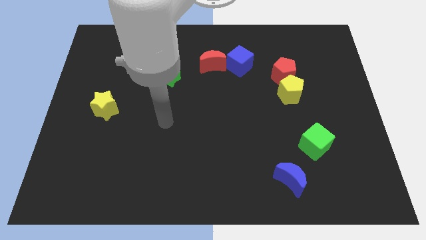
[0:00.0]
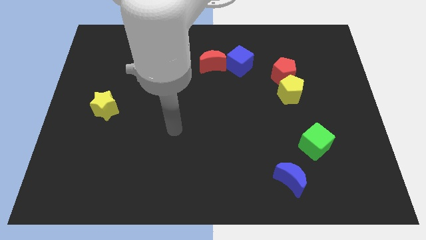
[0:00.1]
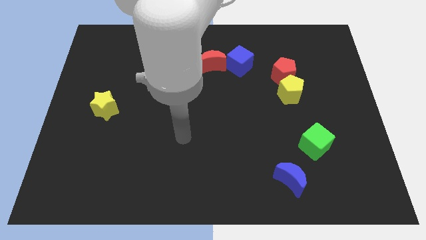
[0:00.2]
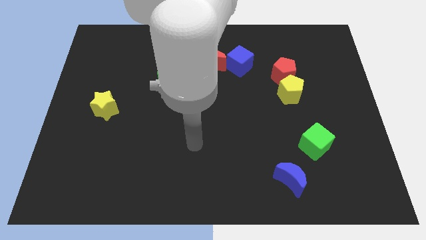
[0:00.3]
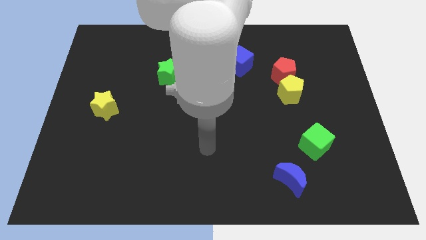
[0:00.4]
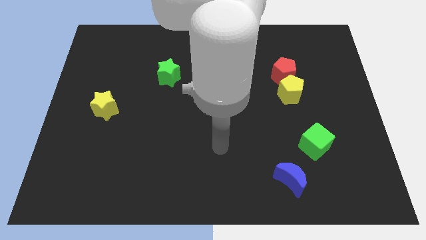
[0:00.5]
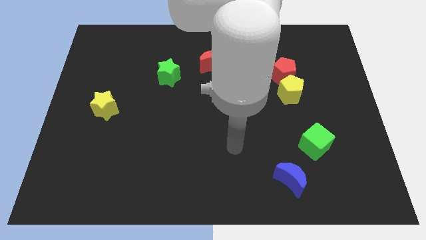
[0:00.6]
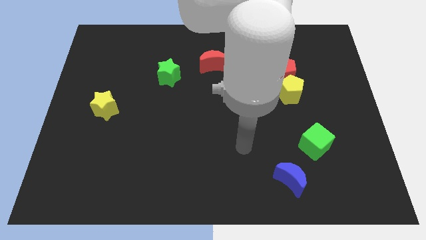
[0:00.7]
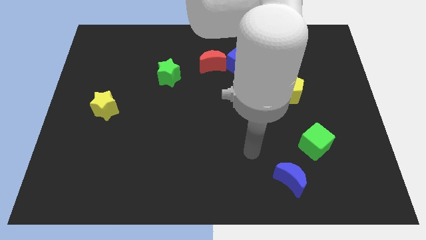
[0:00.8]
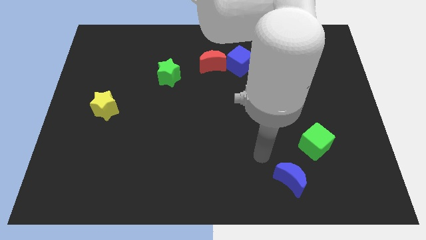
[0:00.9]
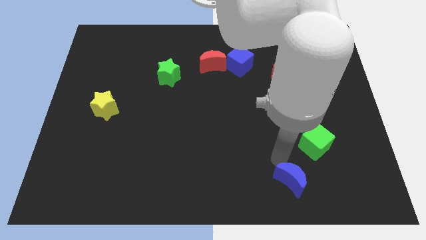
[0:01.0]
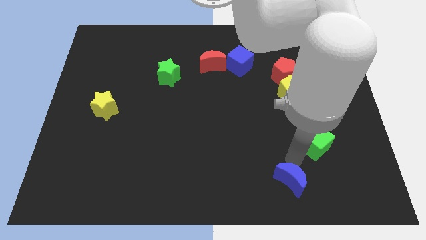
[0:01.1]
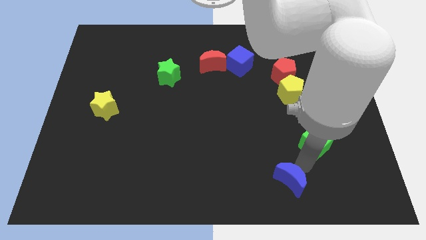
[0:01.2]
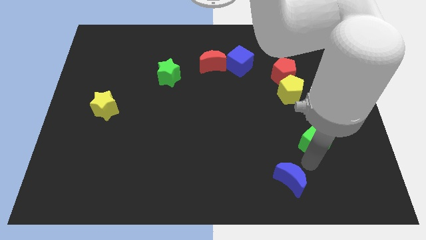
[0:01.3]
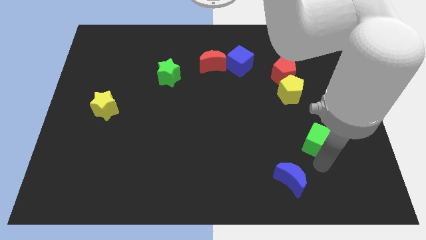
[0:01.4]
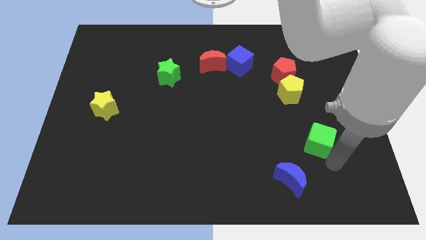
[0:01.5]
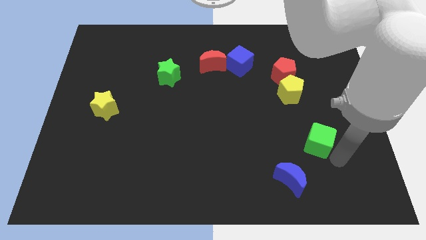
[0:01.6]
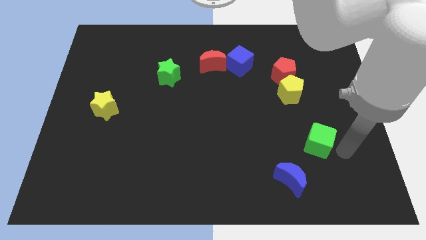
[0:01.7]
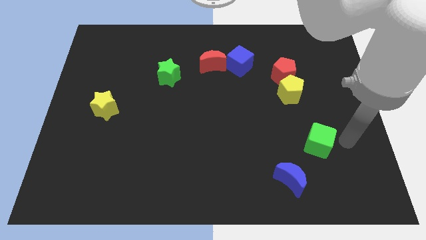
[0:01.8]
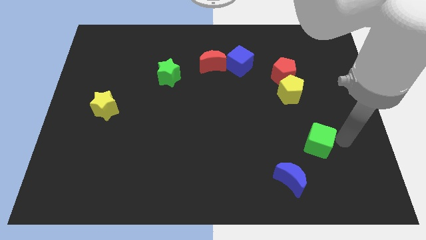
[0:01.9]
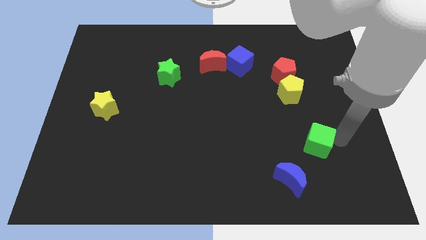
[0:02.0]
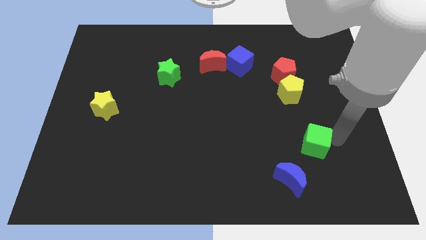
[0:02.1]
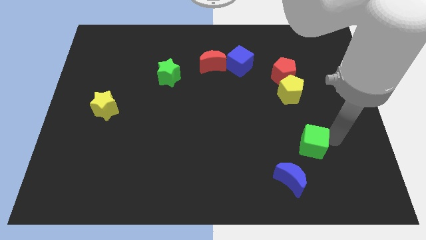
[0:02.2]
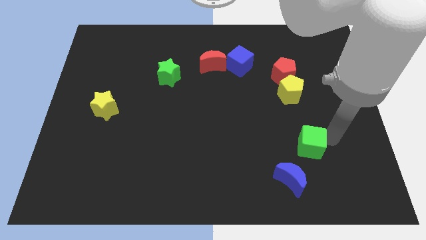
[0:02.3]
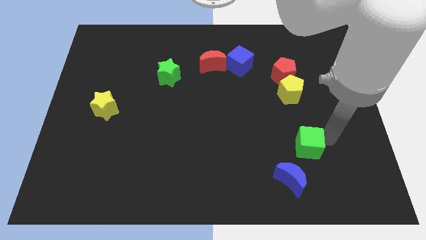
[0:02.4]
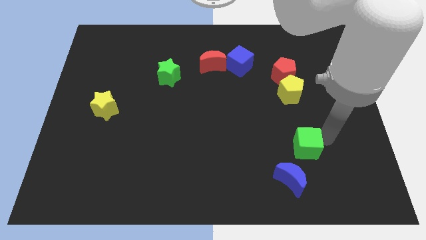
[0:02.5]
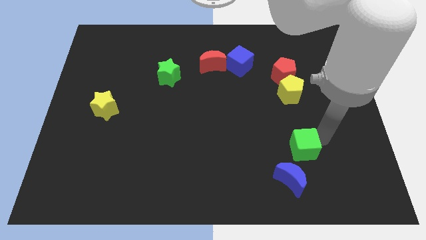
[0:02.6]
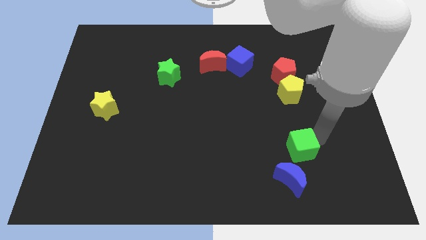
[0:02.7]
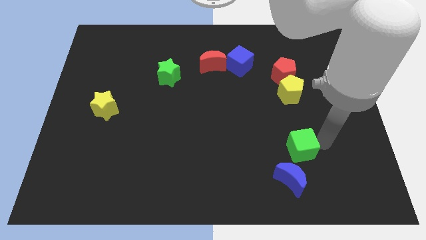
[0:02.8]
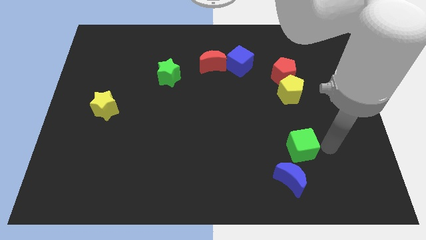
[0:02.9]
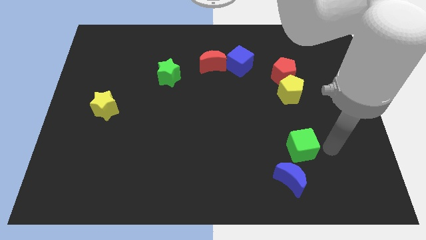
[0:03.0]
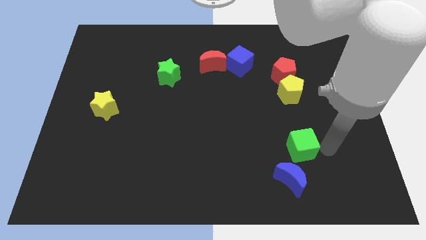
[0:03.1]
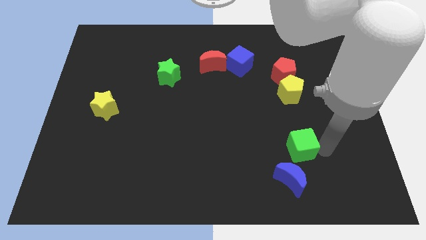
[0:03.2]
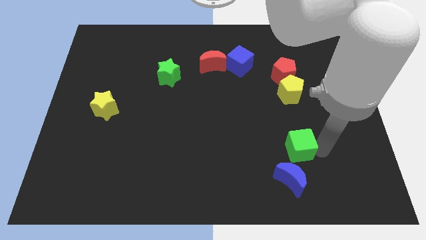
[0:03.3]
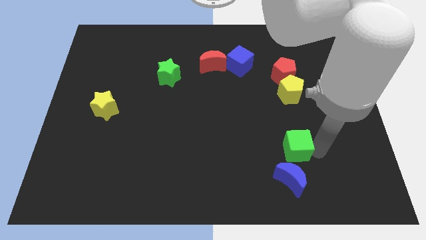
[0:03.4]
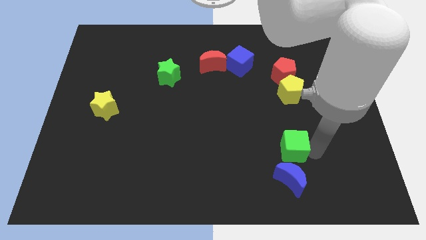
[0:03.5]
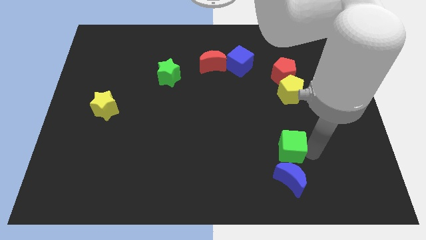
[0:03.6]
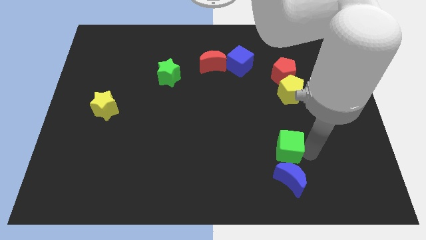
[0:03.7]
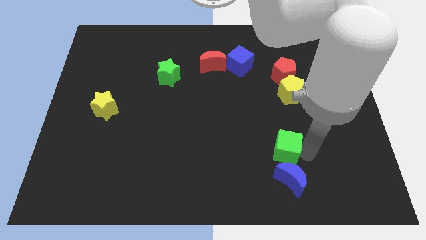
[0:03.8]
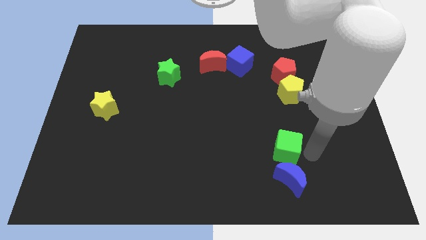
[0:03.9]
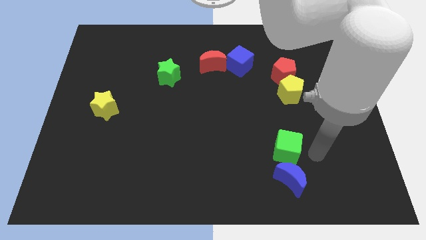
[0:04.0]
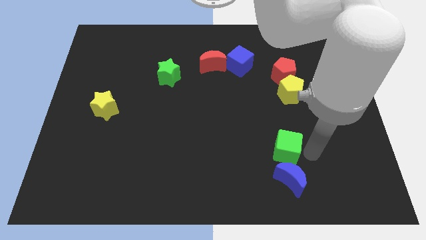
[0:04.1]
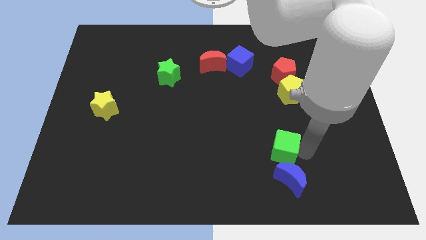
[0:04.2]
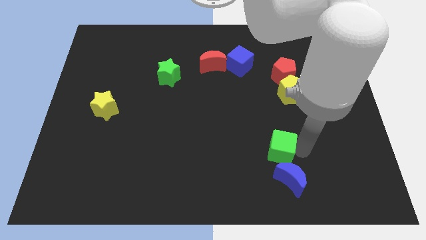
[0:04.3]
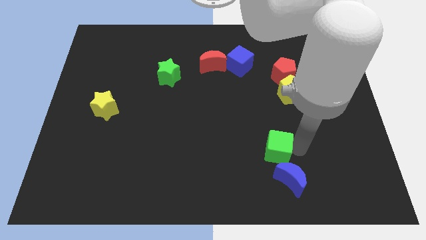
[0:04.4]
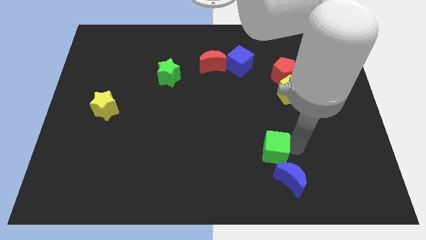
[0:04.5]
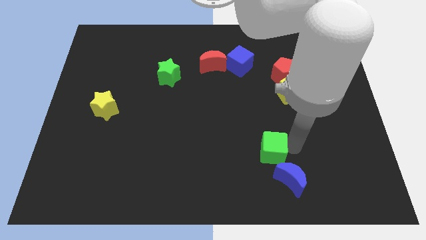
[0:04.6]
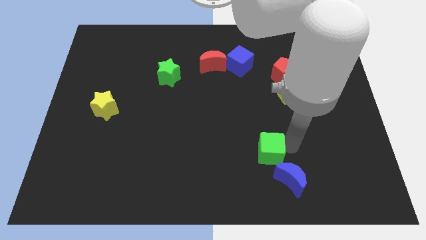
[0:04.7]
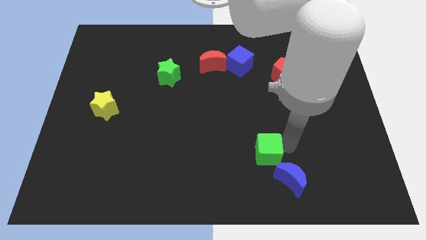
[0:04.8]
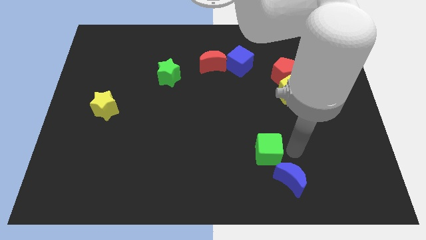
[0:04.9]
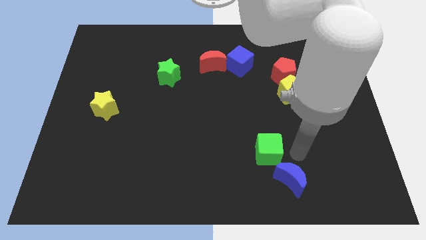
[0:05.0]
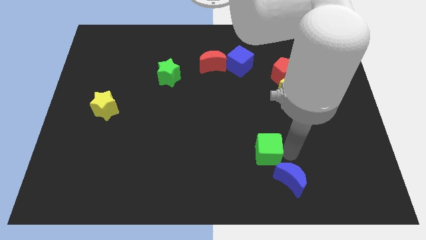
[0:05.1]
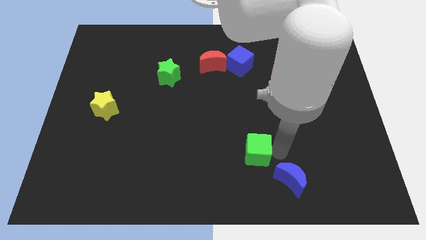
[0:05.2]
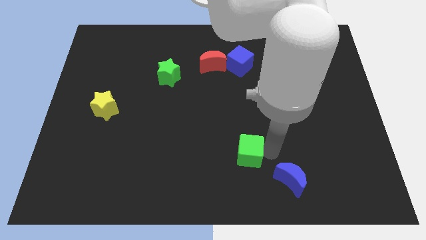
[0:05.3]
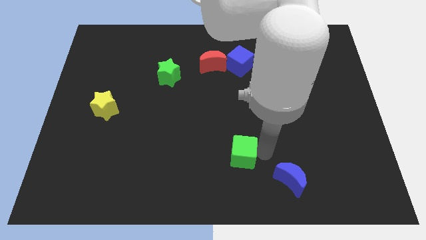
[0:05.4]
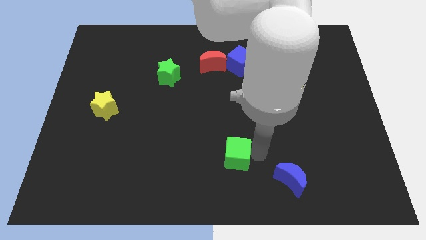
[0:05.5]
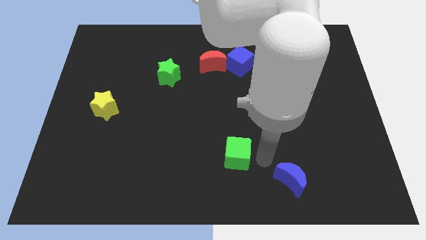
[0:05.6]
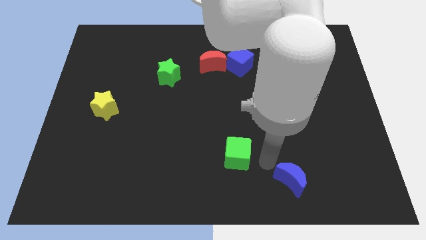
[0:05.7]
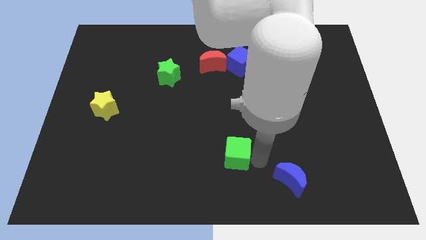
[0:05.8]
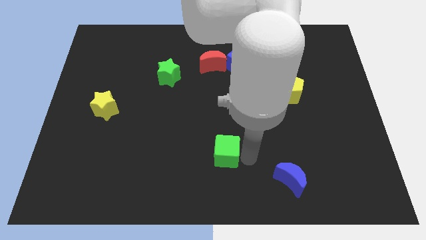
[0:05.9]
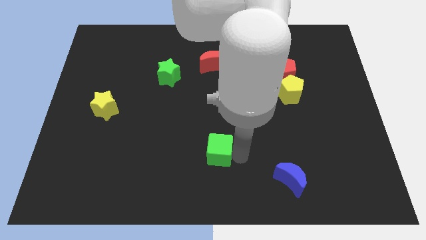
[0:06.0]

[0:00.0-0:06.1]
push the green cube left

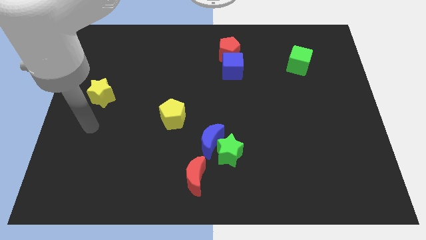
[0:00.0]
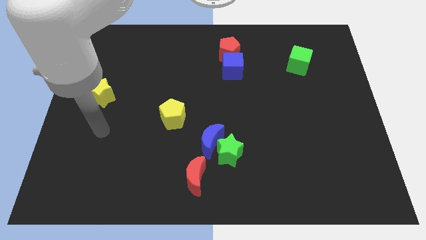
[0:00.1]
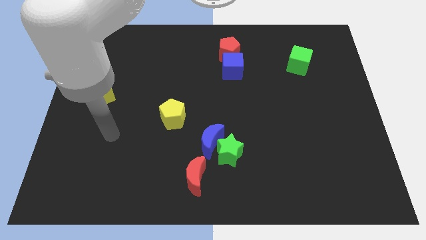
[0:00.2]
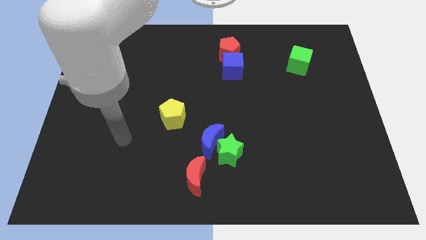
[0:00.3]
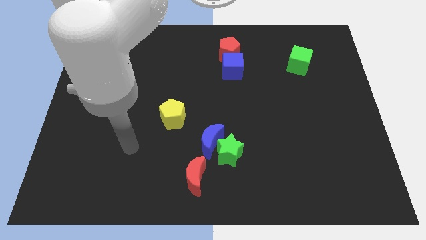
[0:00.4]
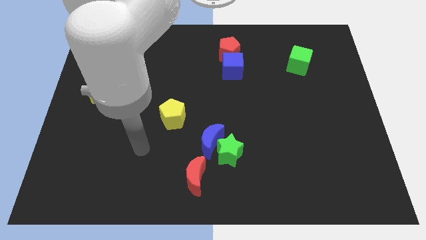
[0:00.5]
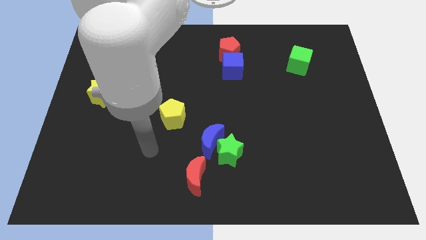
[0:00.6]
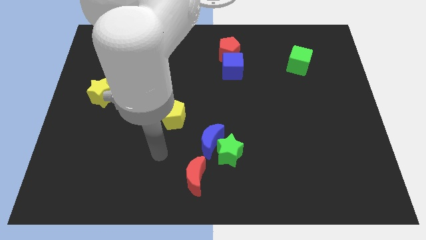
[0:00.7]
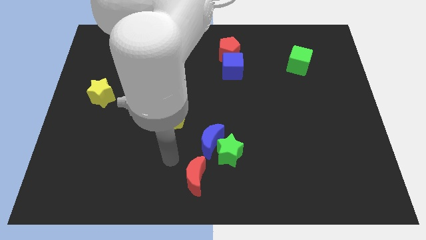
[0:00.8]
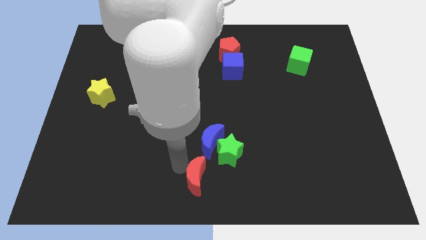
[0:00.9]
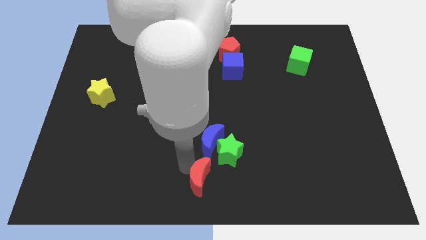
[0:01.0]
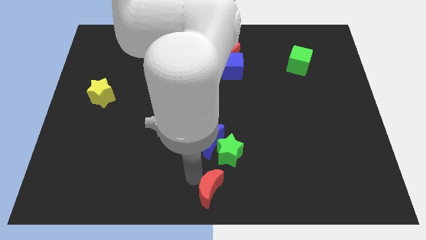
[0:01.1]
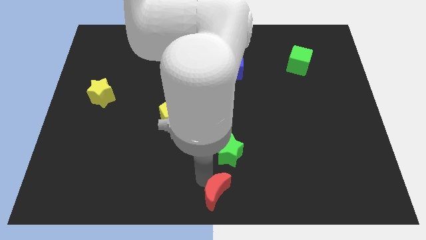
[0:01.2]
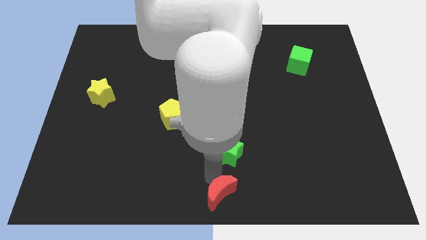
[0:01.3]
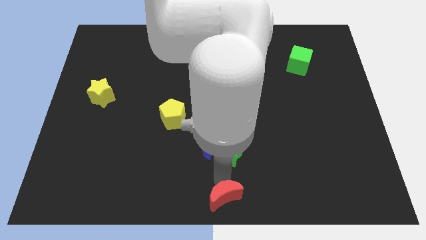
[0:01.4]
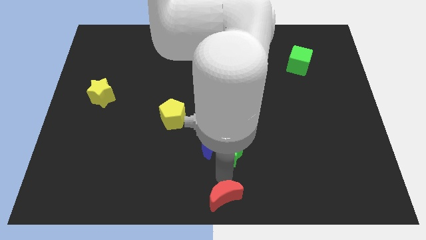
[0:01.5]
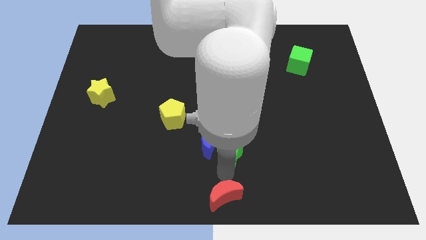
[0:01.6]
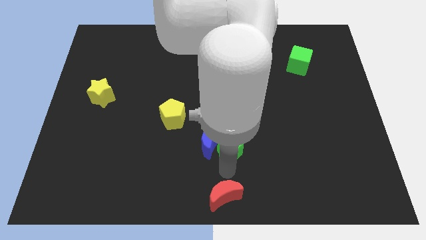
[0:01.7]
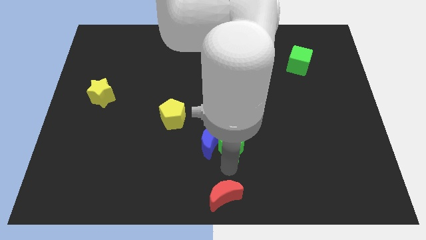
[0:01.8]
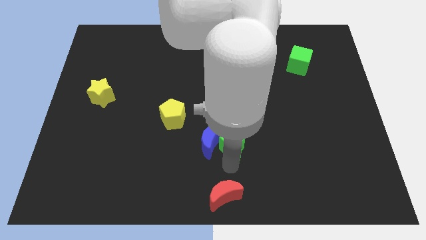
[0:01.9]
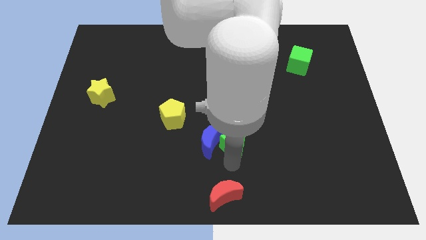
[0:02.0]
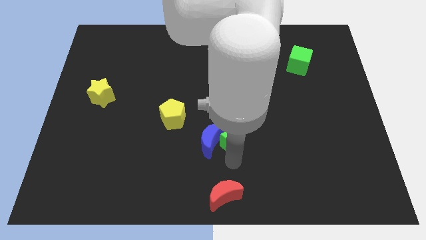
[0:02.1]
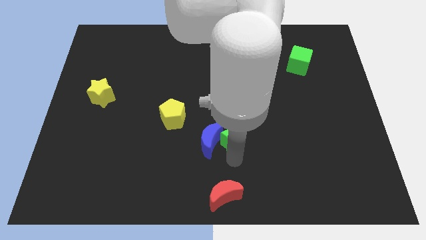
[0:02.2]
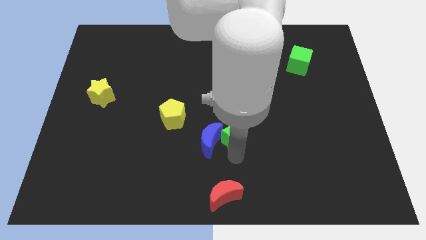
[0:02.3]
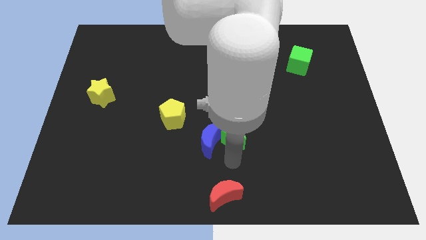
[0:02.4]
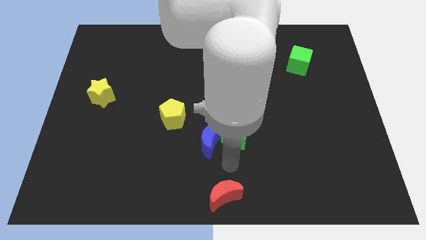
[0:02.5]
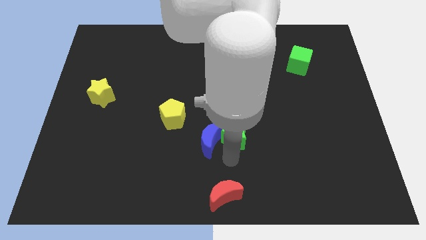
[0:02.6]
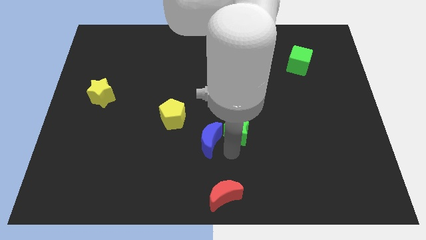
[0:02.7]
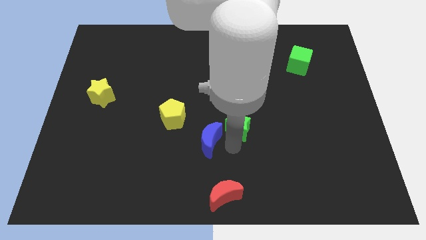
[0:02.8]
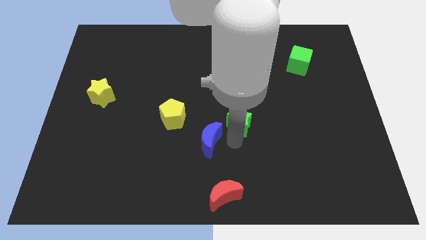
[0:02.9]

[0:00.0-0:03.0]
push the green star up a bit
